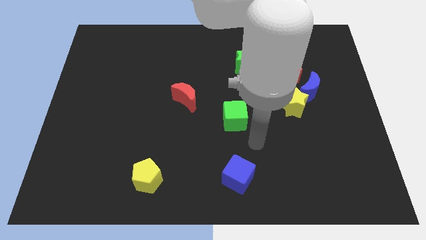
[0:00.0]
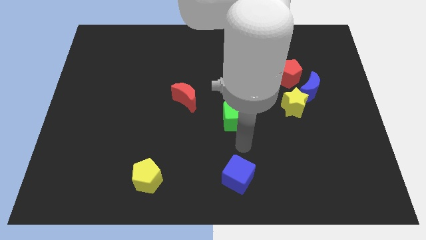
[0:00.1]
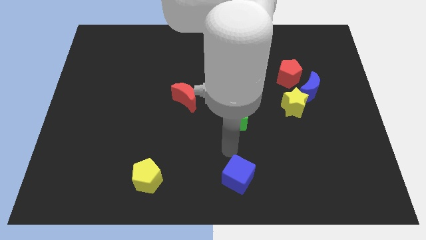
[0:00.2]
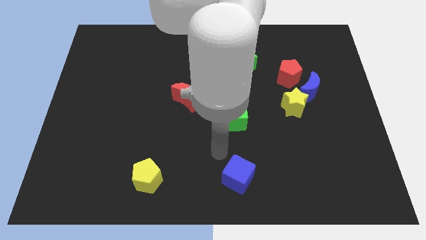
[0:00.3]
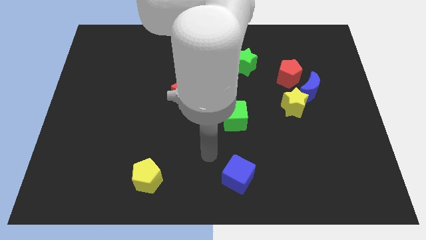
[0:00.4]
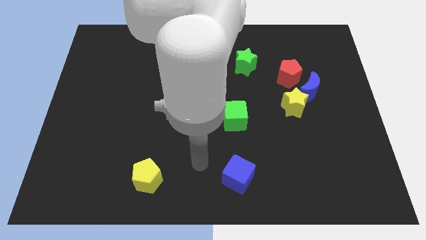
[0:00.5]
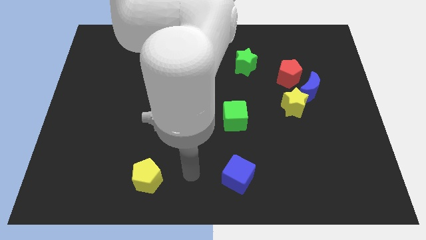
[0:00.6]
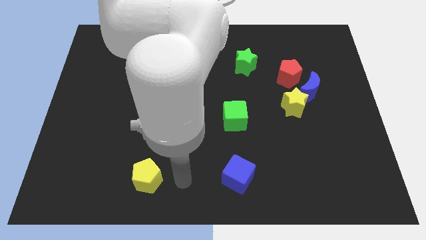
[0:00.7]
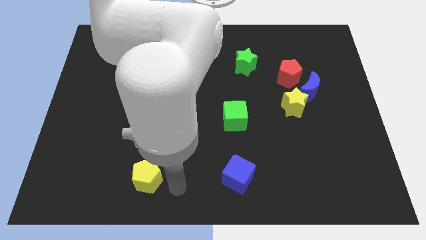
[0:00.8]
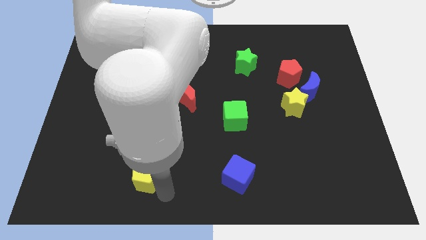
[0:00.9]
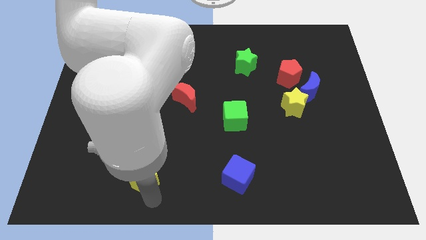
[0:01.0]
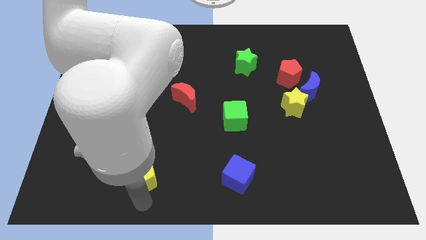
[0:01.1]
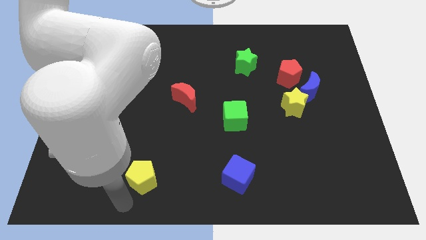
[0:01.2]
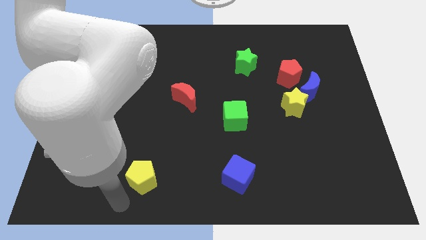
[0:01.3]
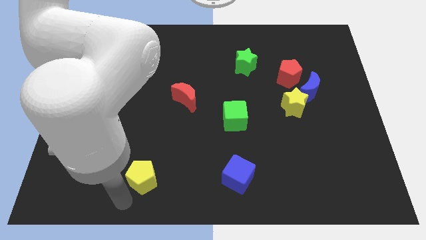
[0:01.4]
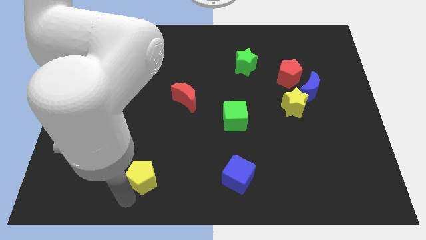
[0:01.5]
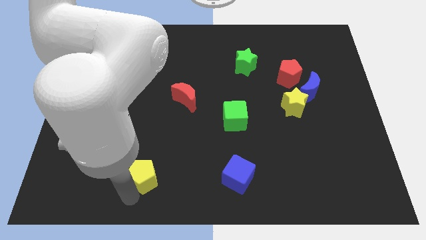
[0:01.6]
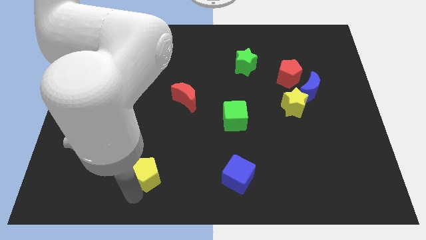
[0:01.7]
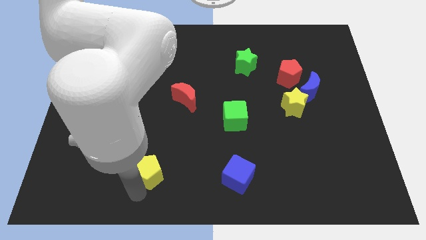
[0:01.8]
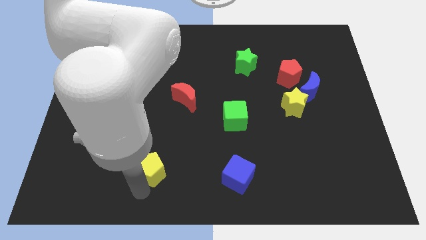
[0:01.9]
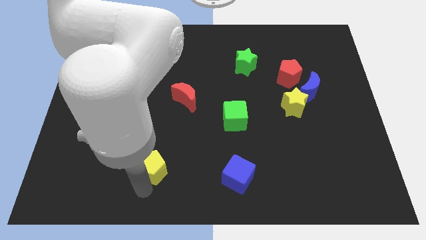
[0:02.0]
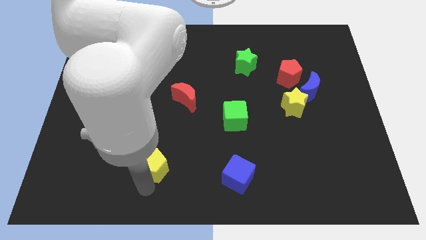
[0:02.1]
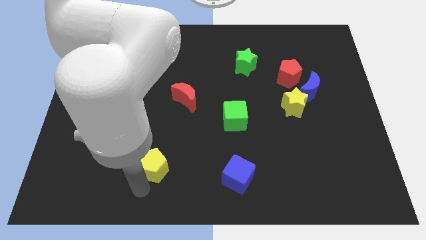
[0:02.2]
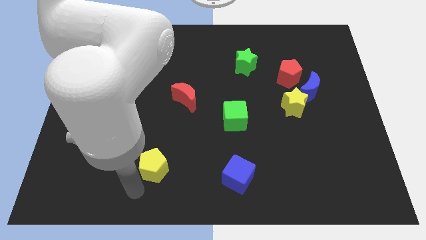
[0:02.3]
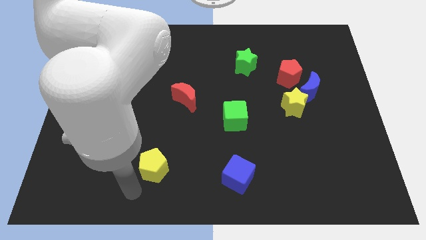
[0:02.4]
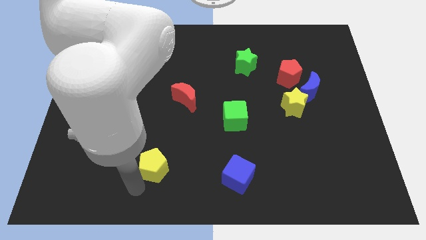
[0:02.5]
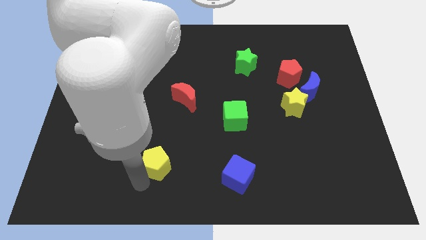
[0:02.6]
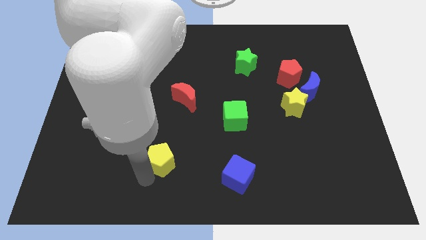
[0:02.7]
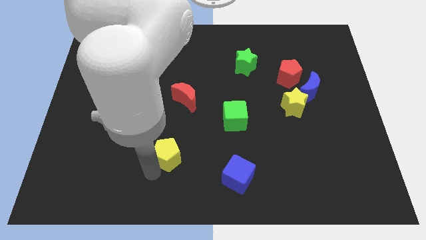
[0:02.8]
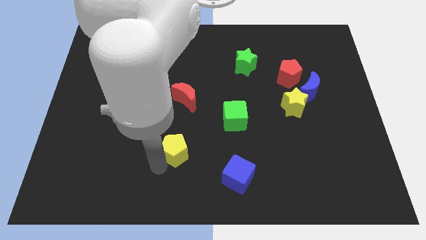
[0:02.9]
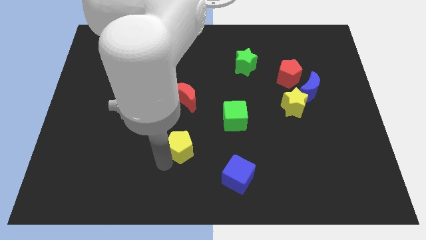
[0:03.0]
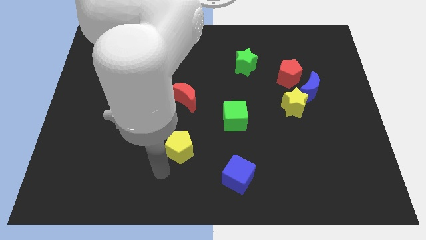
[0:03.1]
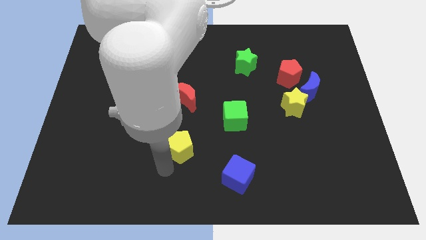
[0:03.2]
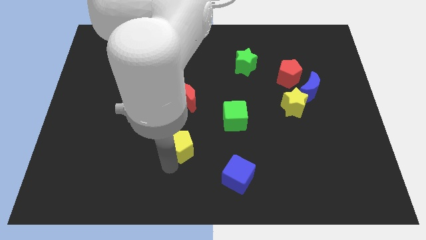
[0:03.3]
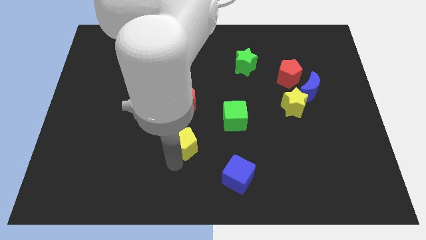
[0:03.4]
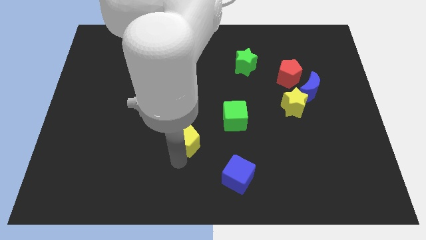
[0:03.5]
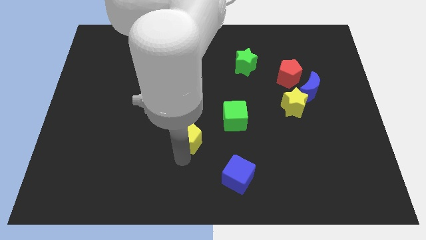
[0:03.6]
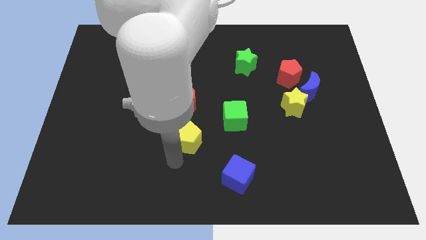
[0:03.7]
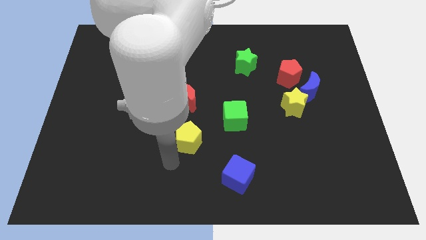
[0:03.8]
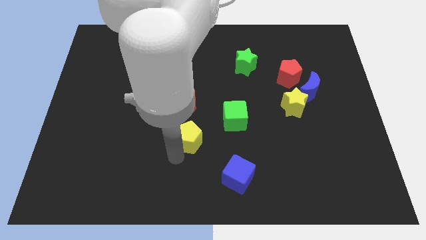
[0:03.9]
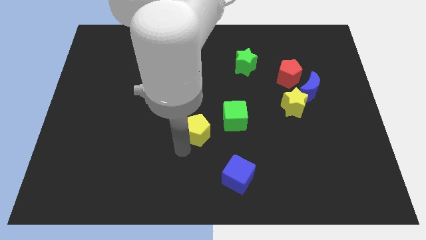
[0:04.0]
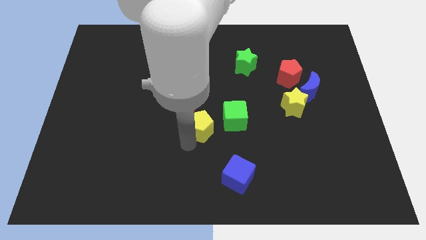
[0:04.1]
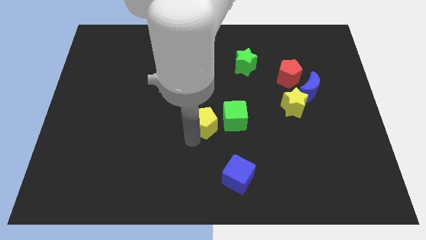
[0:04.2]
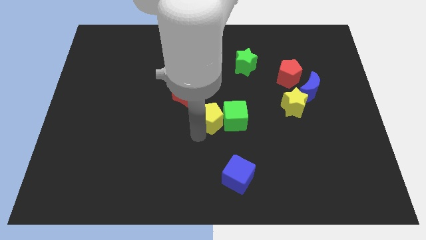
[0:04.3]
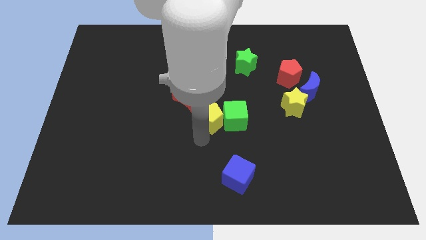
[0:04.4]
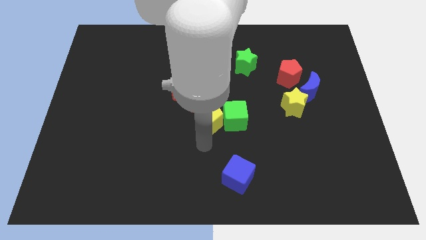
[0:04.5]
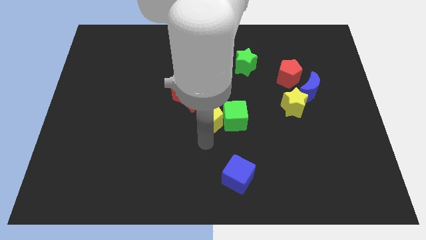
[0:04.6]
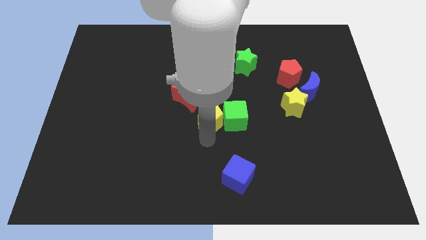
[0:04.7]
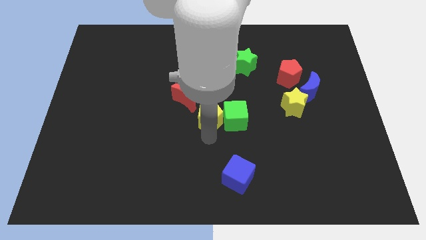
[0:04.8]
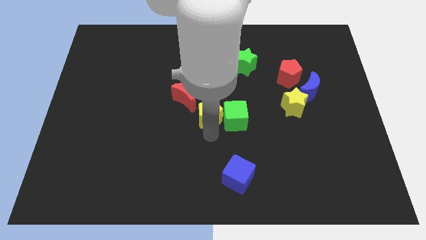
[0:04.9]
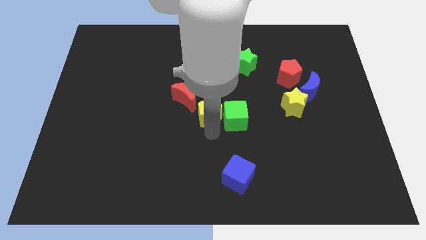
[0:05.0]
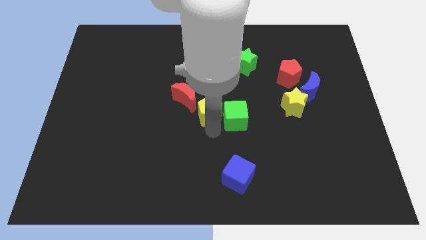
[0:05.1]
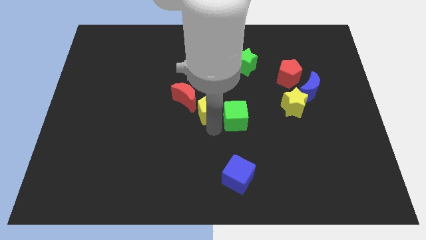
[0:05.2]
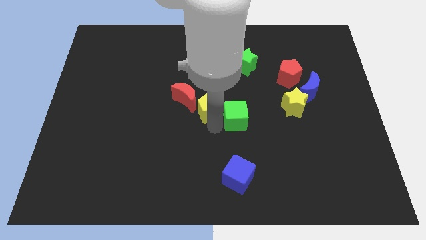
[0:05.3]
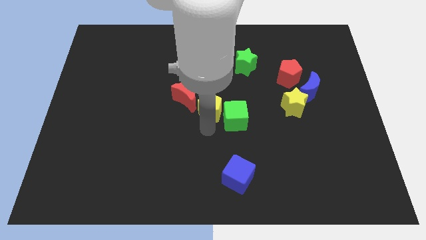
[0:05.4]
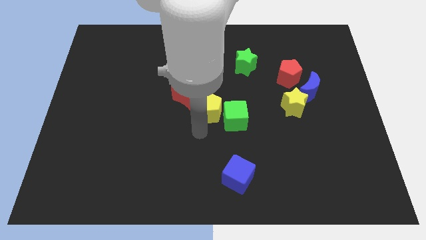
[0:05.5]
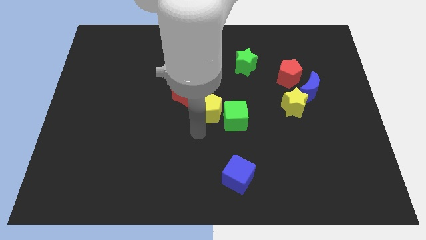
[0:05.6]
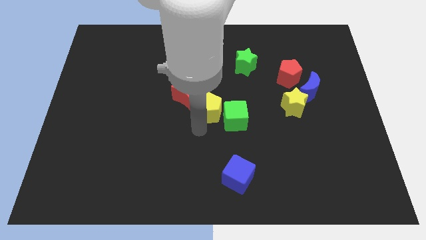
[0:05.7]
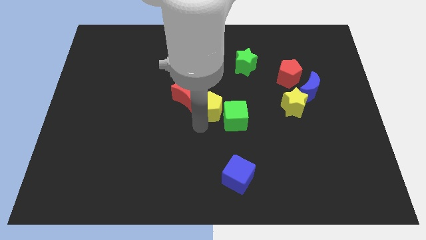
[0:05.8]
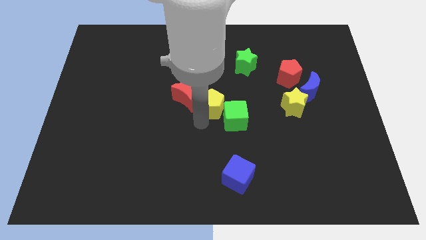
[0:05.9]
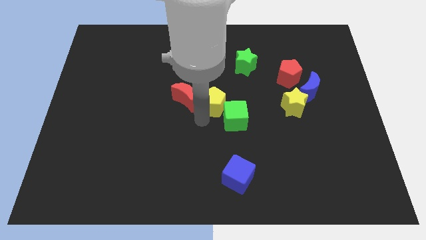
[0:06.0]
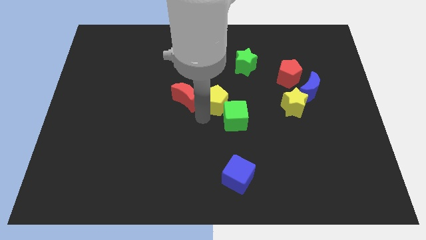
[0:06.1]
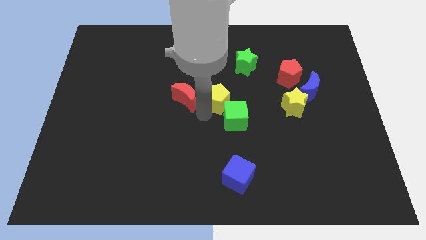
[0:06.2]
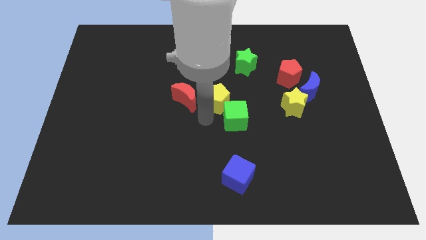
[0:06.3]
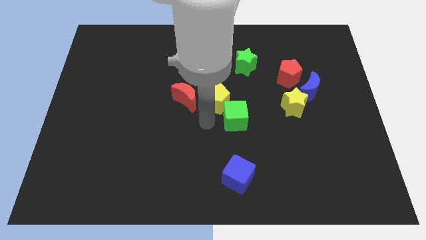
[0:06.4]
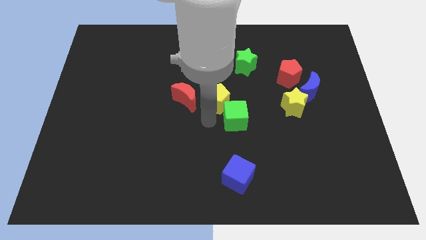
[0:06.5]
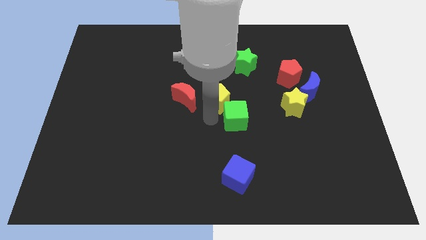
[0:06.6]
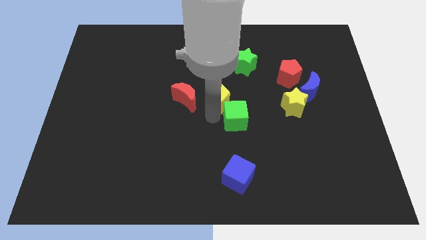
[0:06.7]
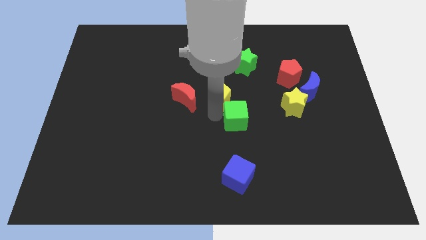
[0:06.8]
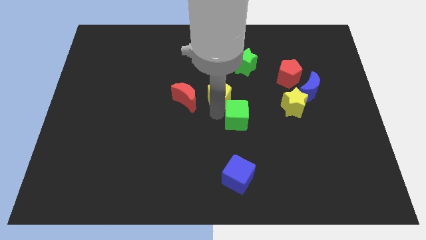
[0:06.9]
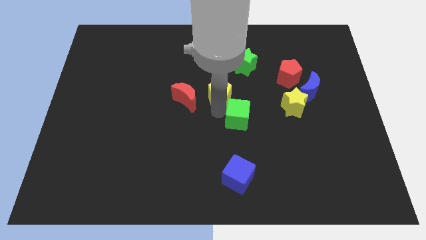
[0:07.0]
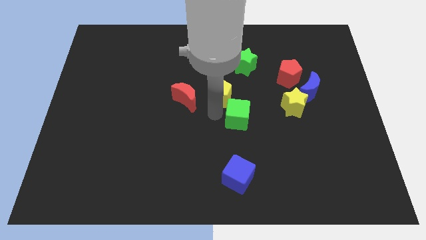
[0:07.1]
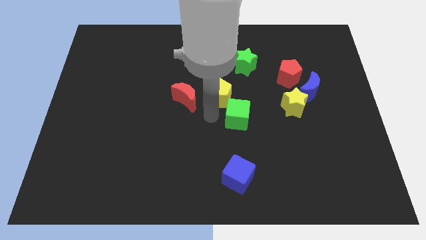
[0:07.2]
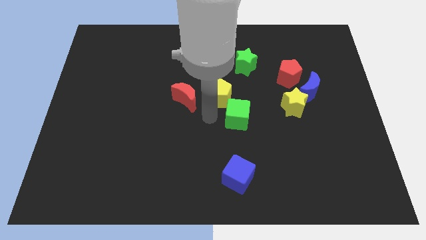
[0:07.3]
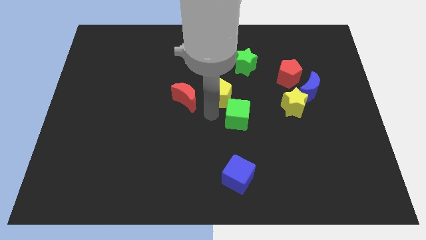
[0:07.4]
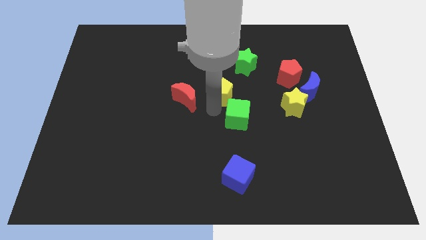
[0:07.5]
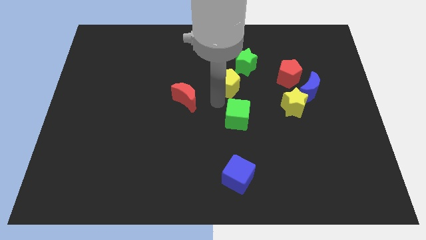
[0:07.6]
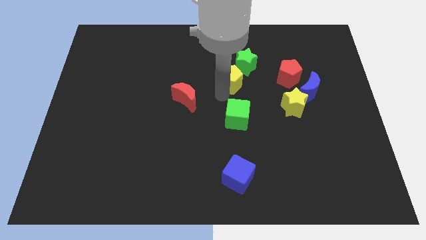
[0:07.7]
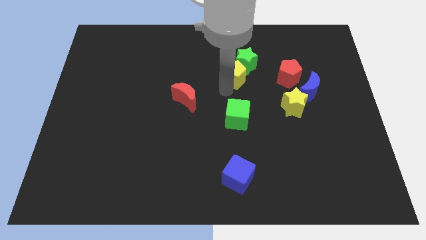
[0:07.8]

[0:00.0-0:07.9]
slide the yellow pentagon close to the green star
